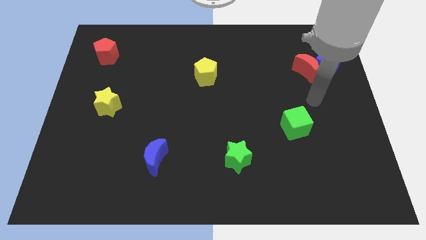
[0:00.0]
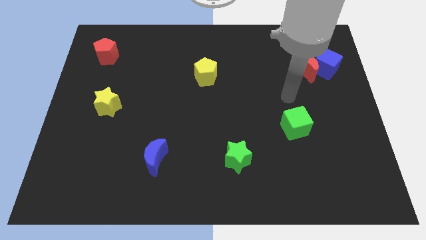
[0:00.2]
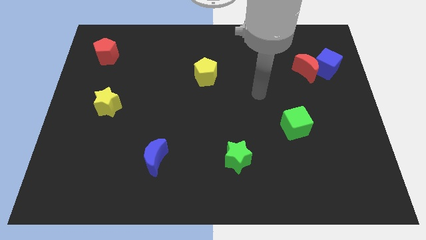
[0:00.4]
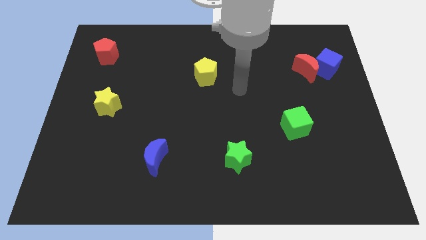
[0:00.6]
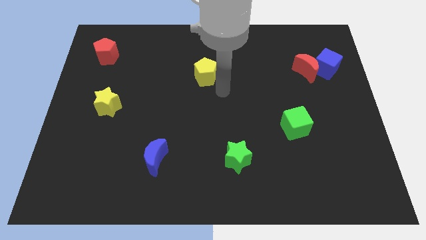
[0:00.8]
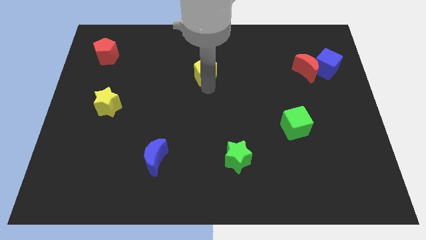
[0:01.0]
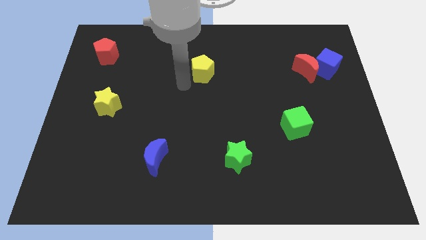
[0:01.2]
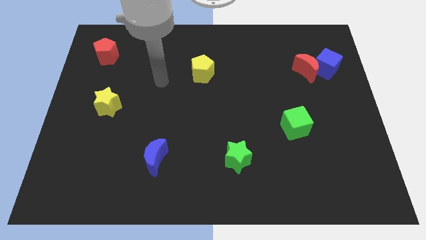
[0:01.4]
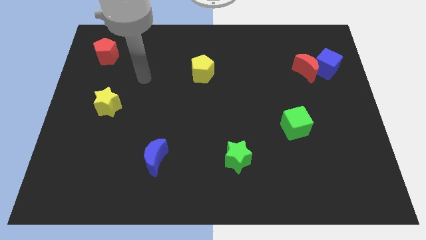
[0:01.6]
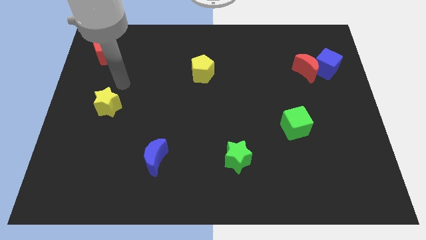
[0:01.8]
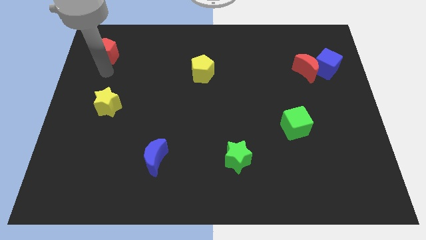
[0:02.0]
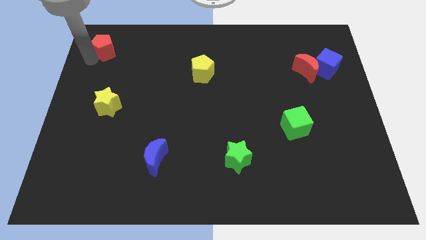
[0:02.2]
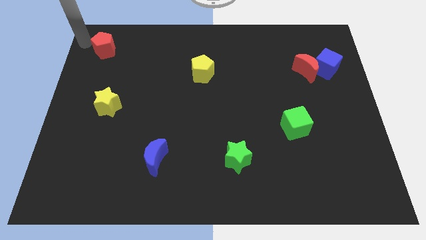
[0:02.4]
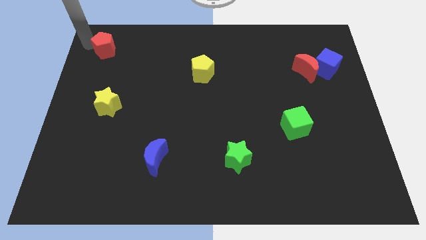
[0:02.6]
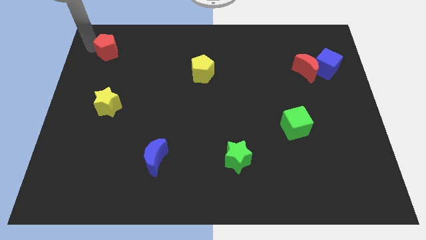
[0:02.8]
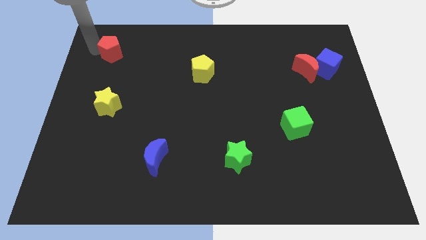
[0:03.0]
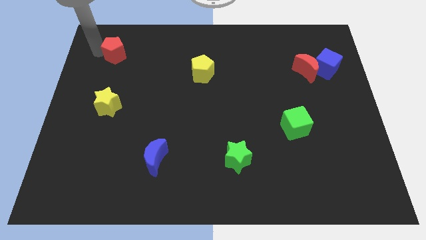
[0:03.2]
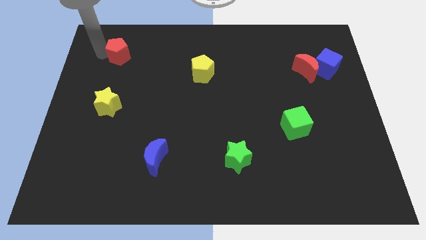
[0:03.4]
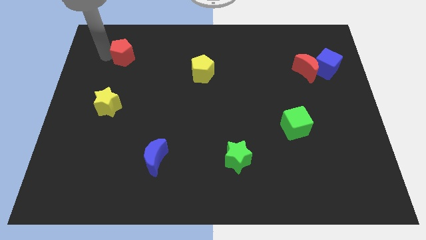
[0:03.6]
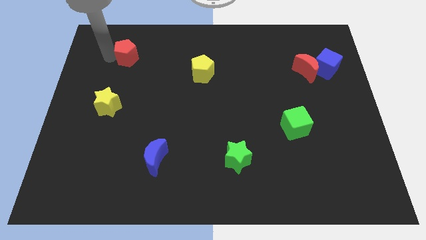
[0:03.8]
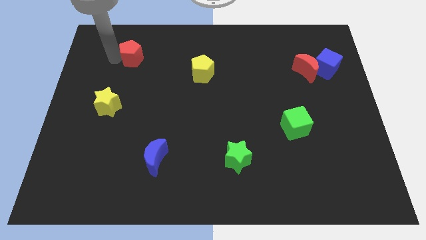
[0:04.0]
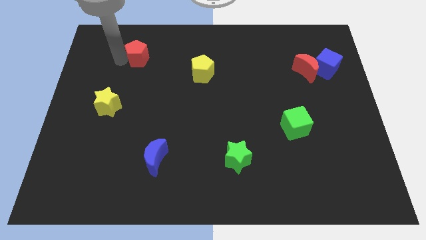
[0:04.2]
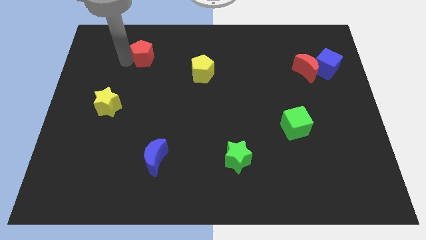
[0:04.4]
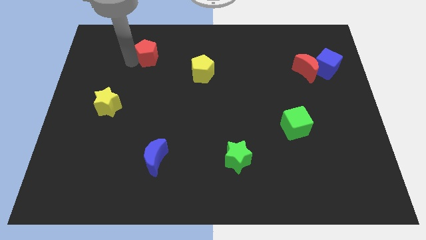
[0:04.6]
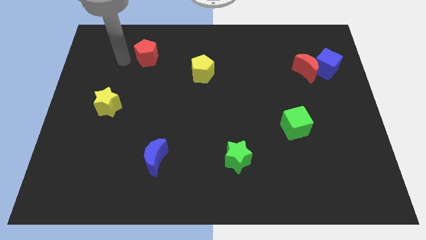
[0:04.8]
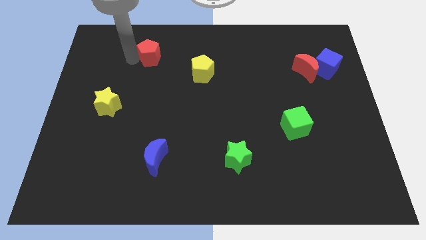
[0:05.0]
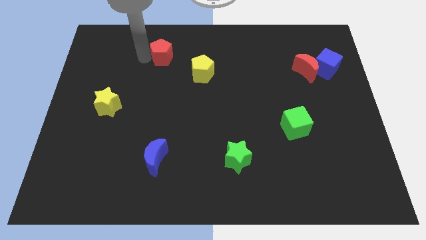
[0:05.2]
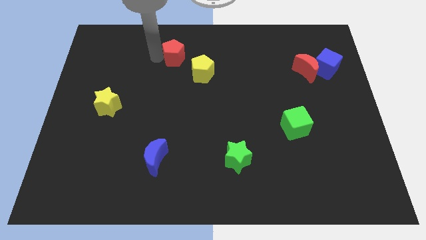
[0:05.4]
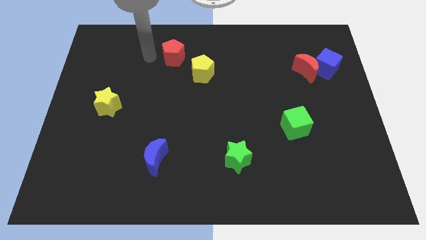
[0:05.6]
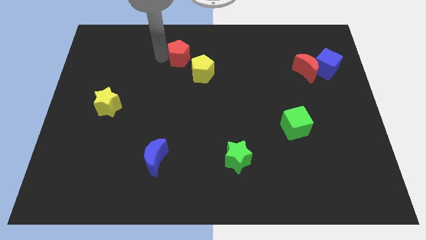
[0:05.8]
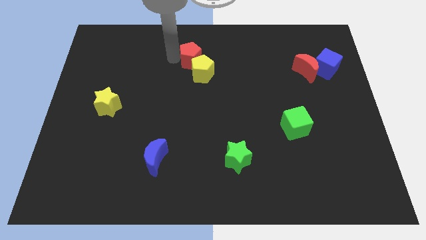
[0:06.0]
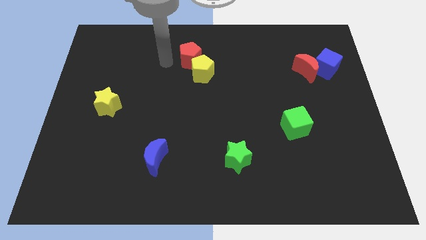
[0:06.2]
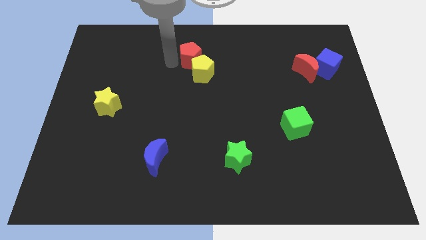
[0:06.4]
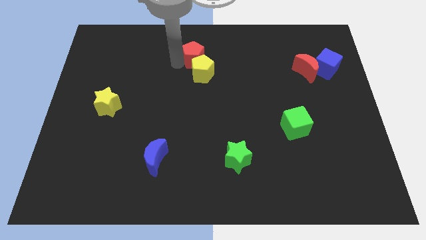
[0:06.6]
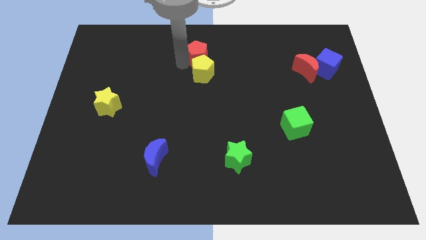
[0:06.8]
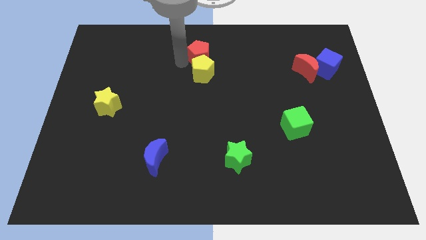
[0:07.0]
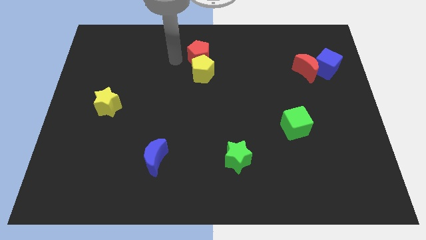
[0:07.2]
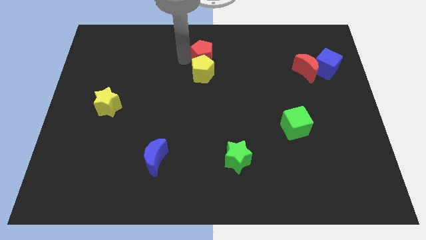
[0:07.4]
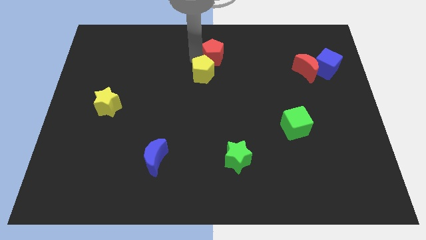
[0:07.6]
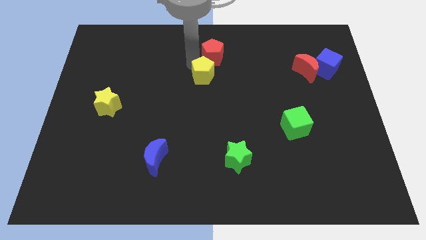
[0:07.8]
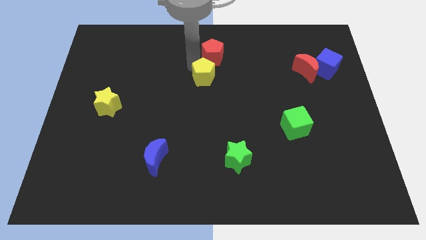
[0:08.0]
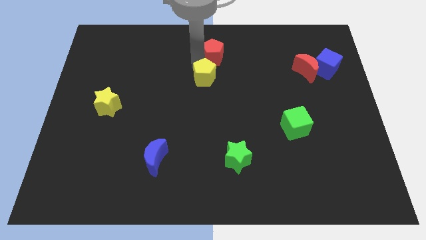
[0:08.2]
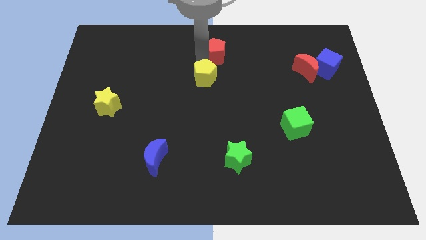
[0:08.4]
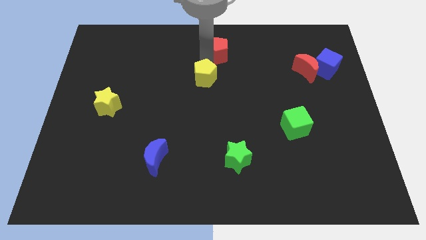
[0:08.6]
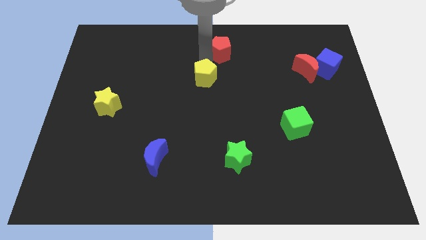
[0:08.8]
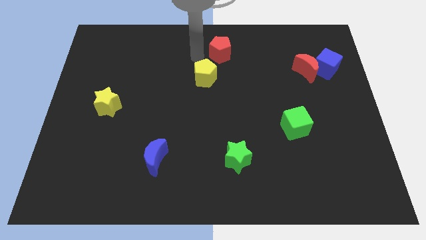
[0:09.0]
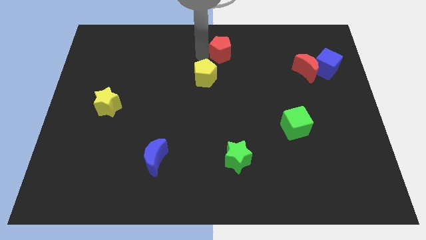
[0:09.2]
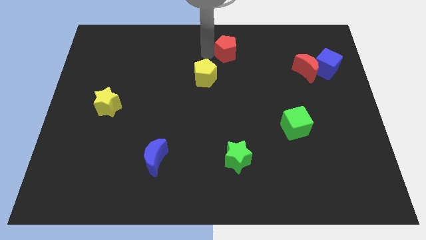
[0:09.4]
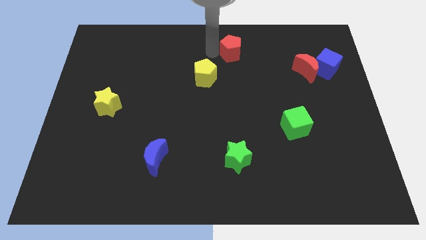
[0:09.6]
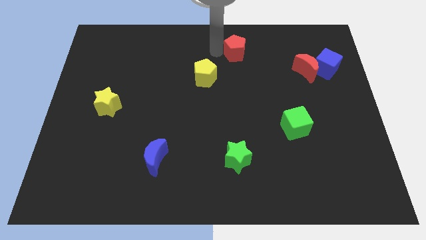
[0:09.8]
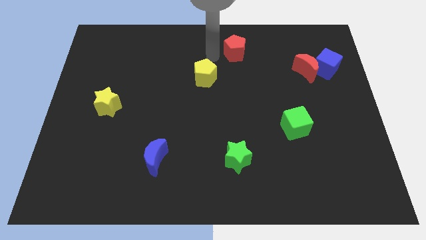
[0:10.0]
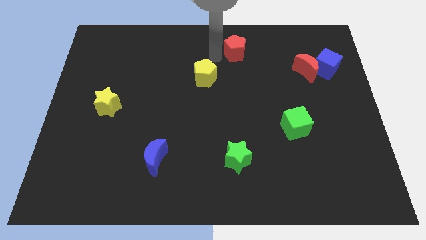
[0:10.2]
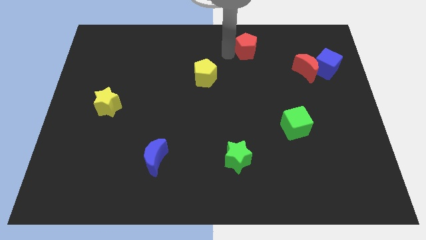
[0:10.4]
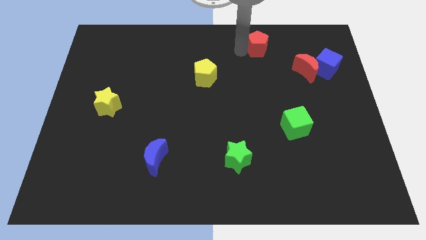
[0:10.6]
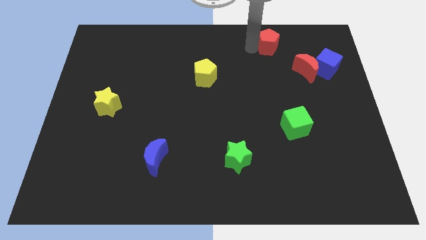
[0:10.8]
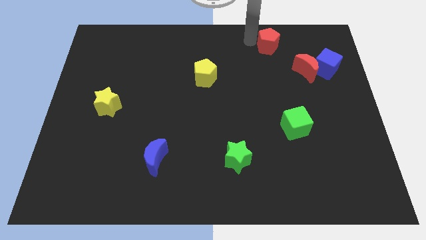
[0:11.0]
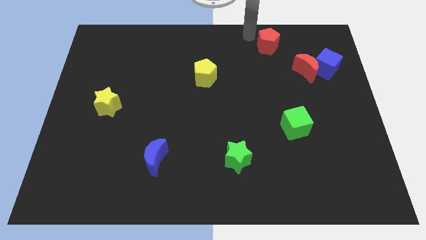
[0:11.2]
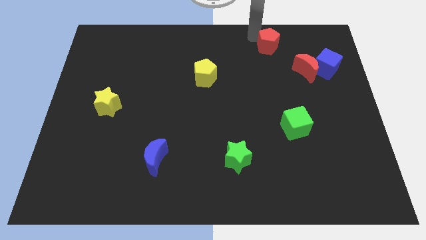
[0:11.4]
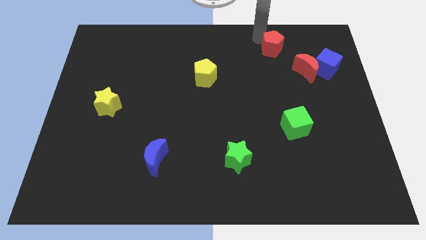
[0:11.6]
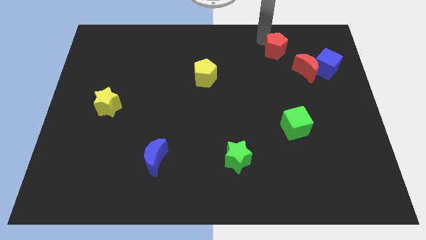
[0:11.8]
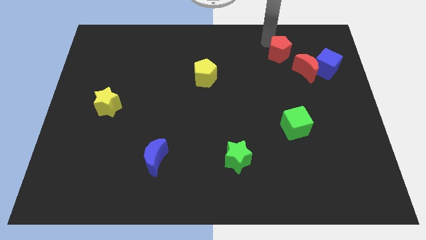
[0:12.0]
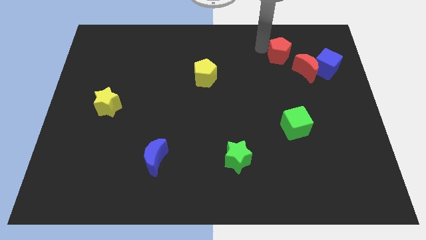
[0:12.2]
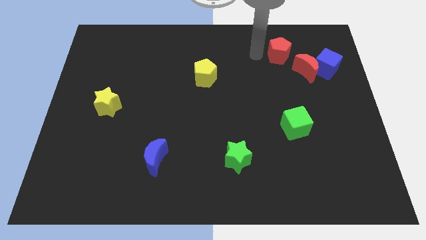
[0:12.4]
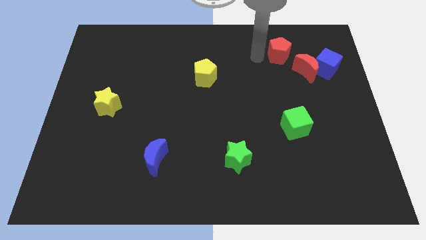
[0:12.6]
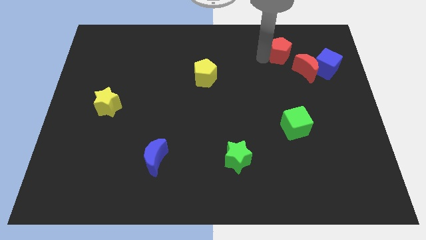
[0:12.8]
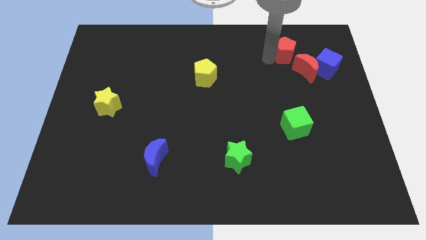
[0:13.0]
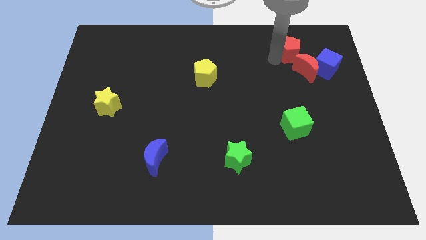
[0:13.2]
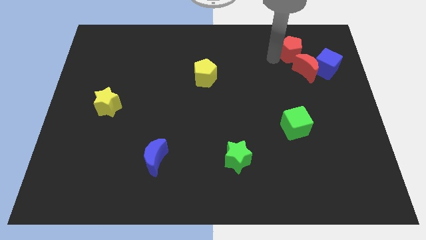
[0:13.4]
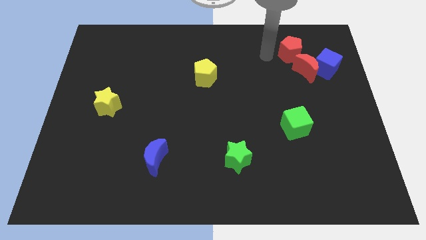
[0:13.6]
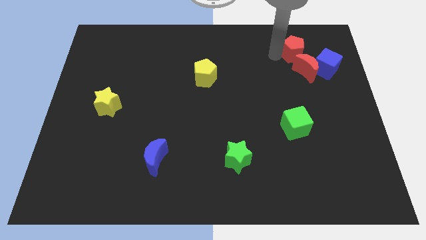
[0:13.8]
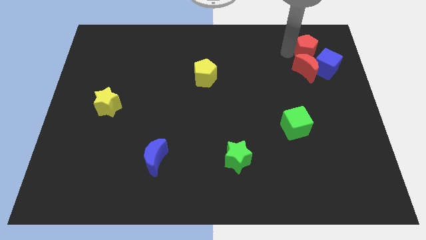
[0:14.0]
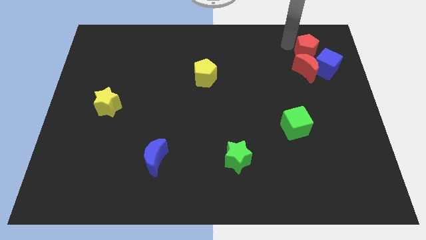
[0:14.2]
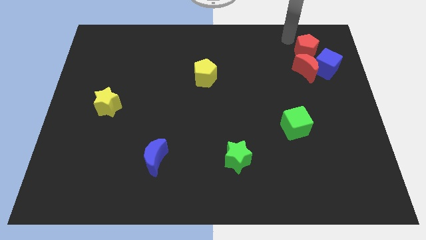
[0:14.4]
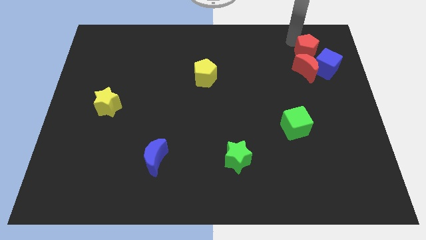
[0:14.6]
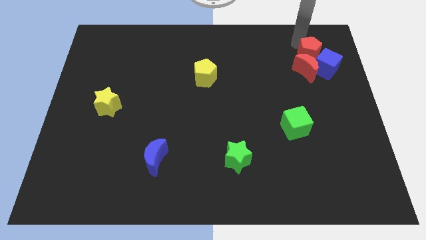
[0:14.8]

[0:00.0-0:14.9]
move the red pentagon to the blue cube
